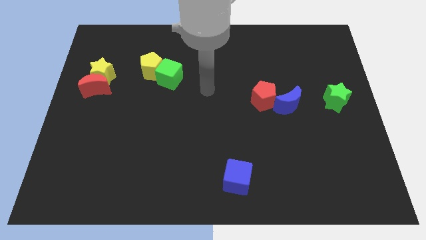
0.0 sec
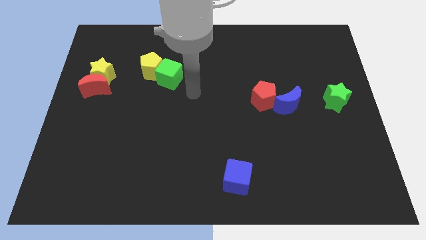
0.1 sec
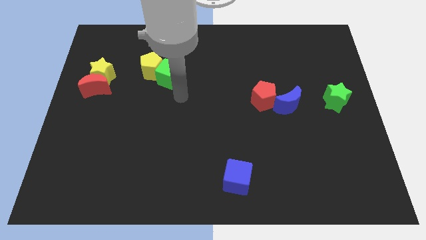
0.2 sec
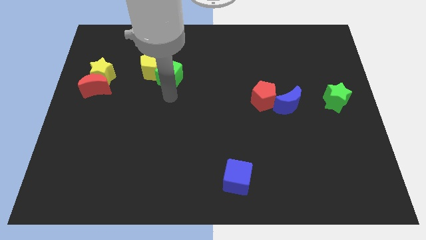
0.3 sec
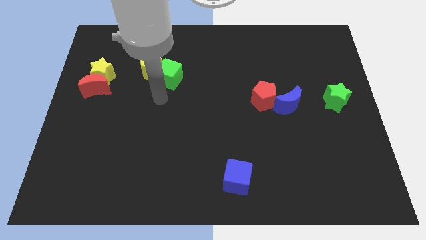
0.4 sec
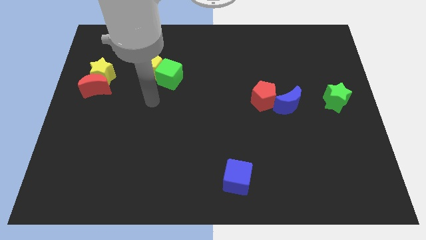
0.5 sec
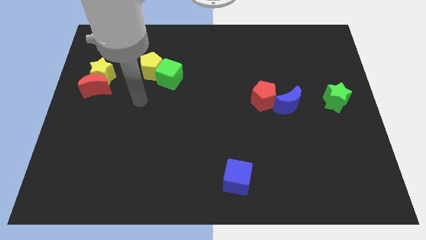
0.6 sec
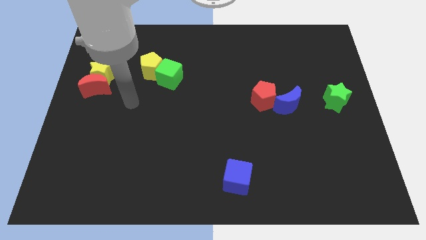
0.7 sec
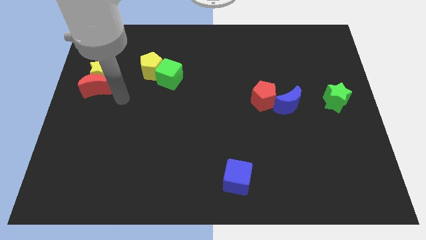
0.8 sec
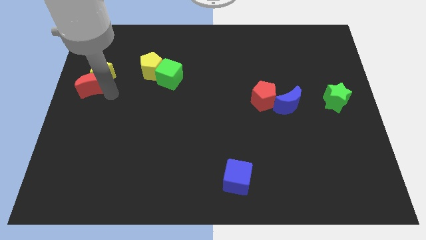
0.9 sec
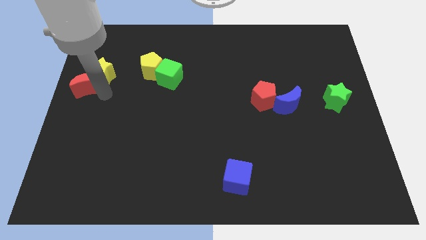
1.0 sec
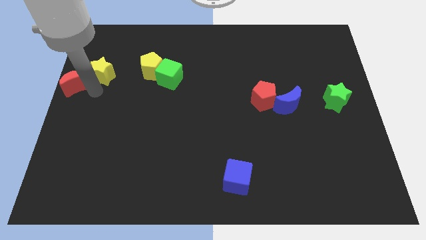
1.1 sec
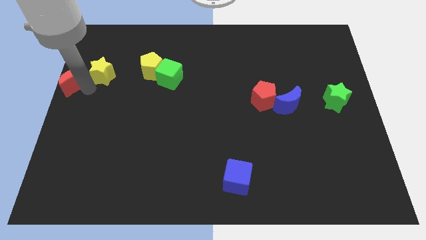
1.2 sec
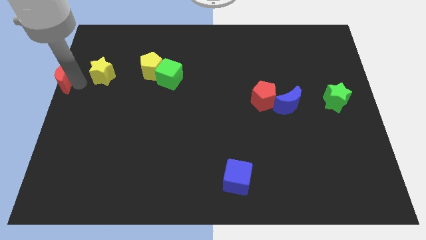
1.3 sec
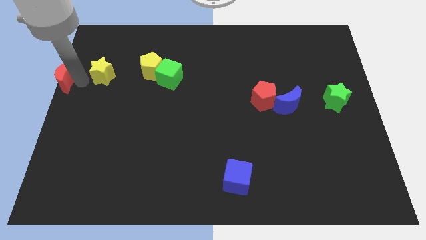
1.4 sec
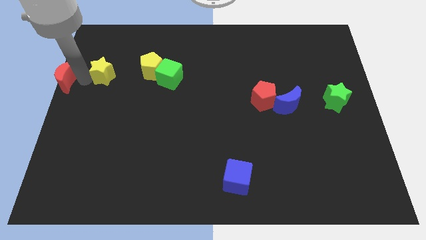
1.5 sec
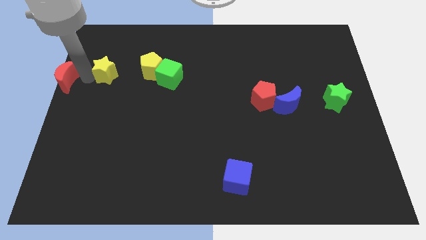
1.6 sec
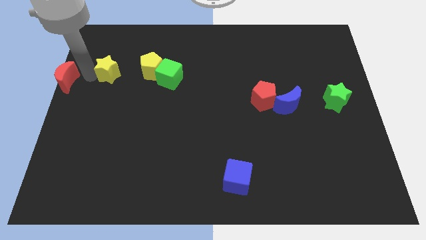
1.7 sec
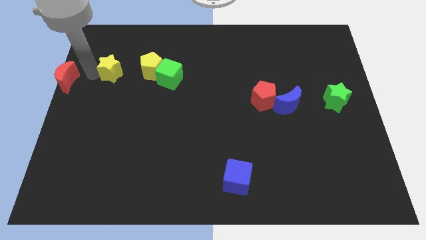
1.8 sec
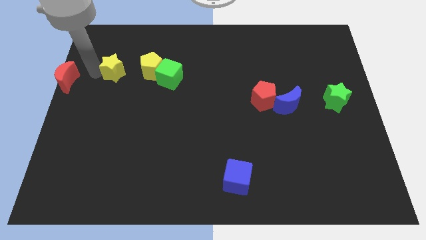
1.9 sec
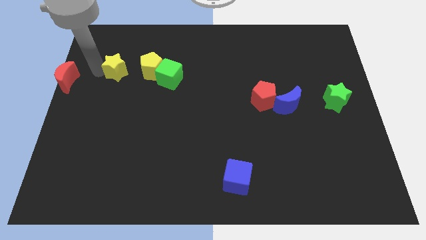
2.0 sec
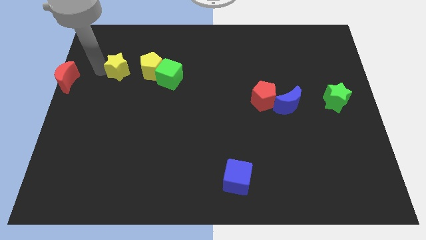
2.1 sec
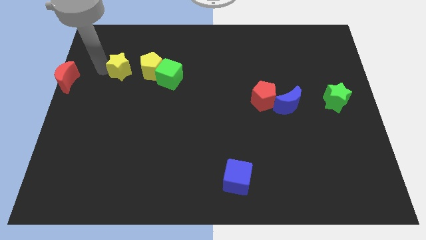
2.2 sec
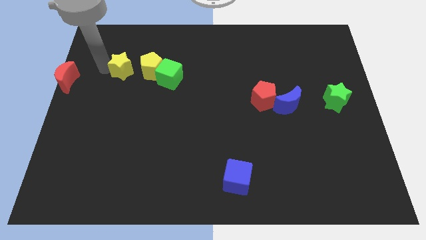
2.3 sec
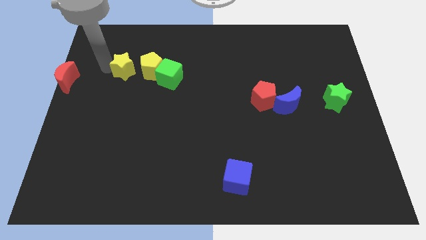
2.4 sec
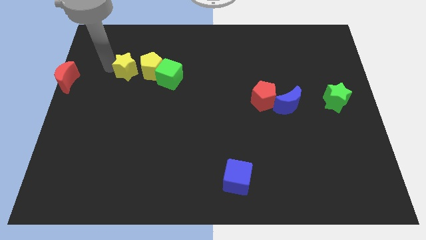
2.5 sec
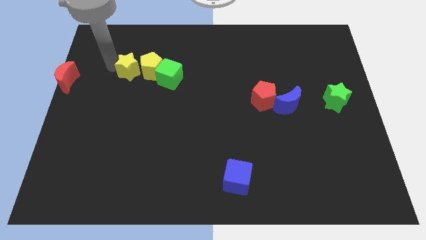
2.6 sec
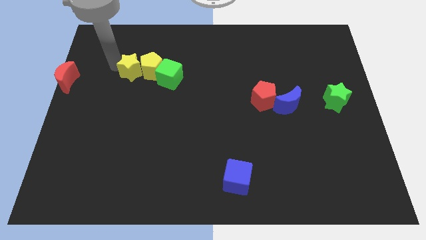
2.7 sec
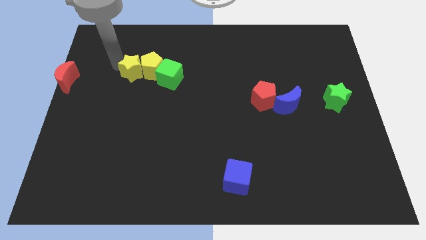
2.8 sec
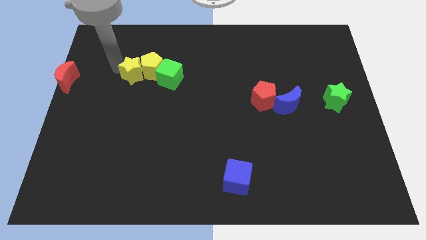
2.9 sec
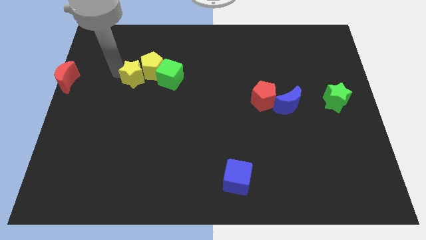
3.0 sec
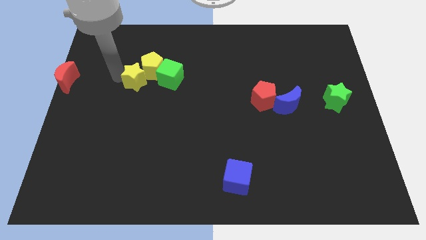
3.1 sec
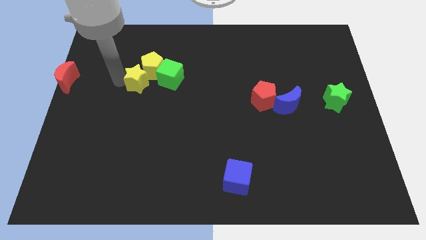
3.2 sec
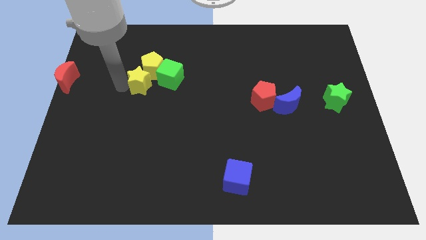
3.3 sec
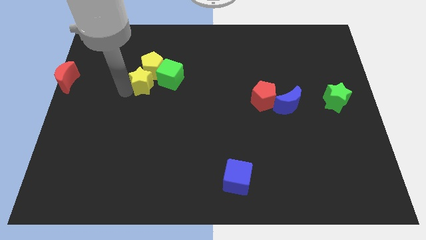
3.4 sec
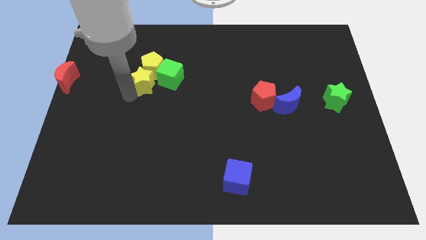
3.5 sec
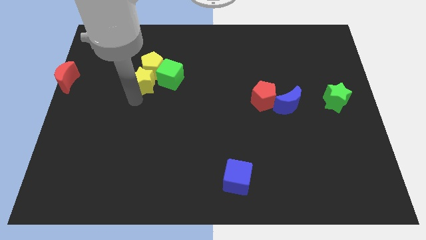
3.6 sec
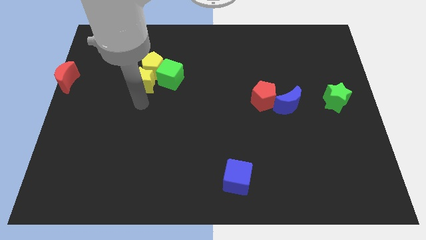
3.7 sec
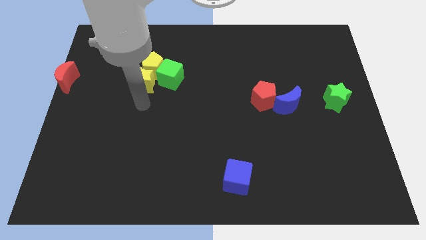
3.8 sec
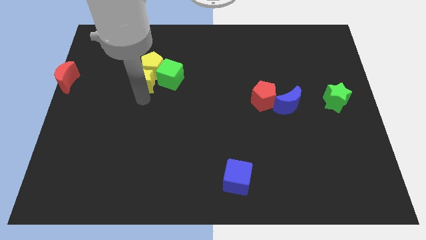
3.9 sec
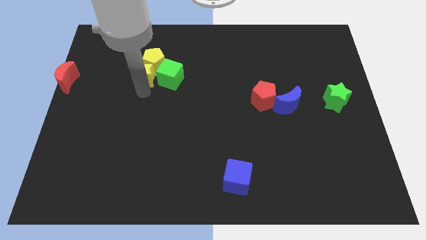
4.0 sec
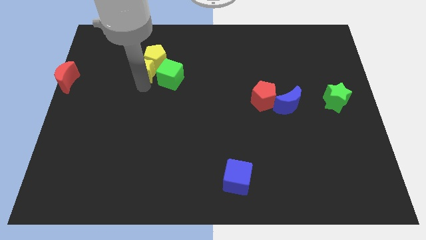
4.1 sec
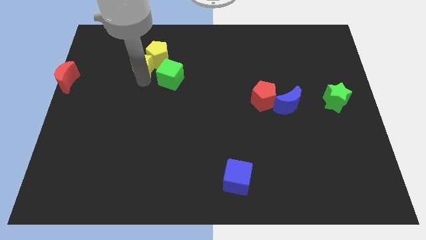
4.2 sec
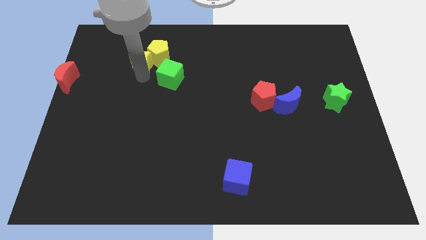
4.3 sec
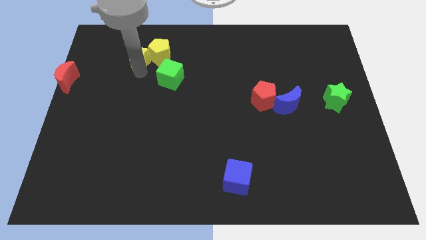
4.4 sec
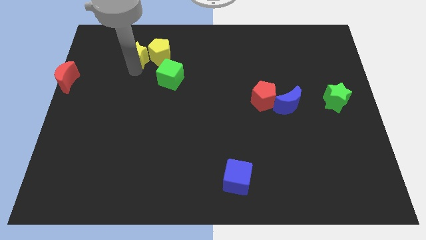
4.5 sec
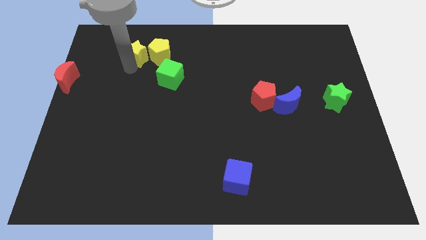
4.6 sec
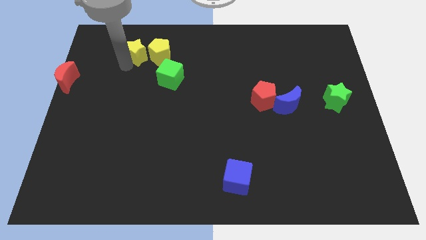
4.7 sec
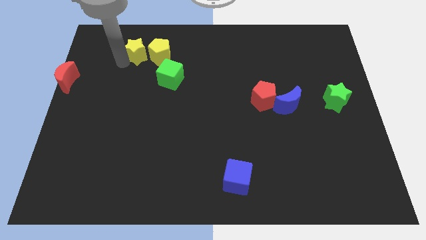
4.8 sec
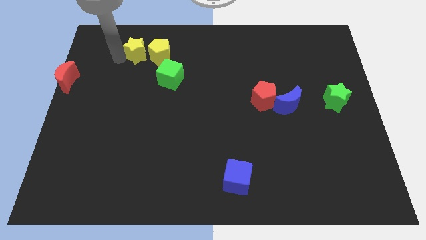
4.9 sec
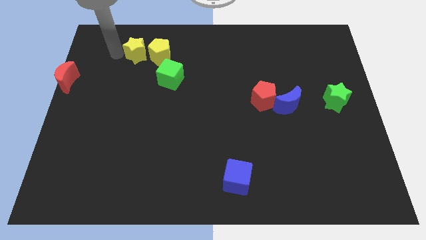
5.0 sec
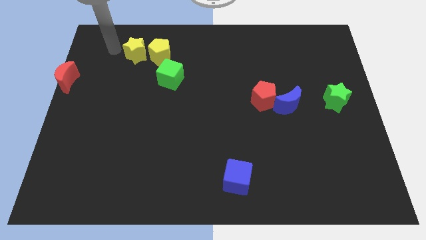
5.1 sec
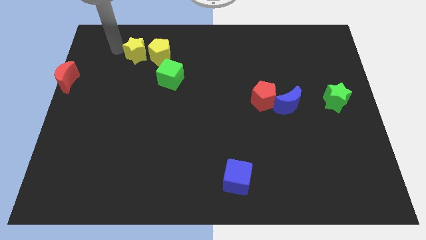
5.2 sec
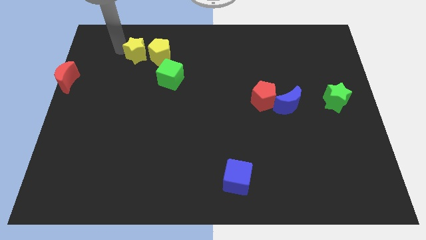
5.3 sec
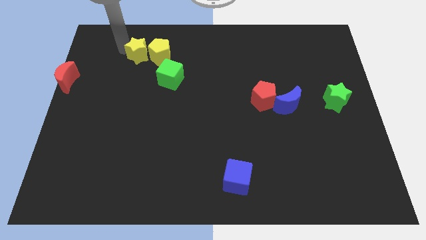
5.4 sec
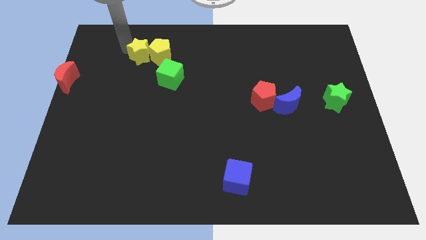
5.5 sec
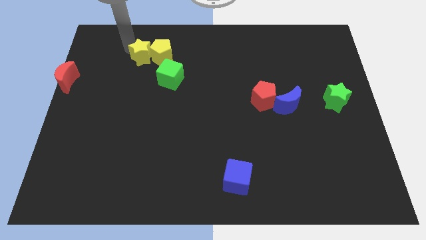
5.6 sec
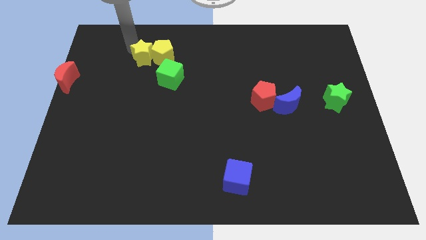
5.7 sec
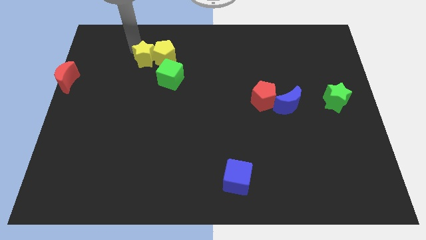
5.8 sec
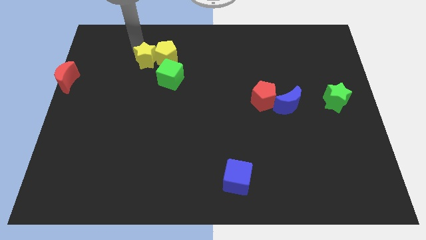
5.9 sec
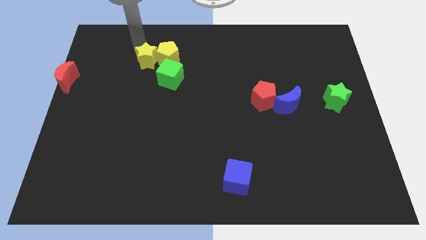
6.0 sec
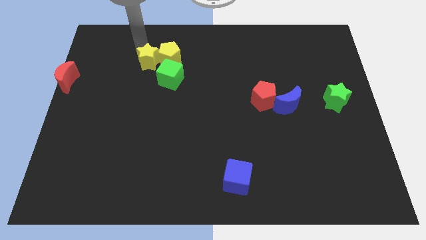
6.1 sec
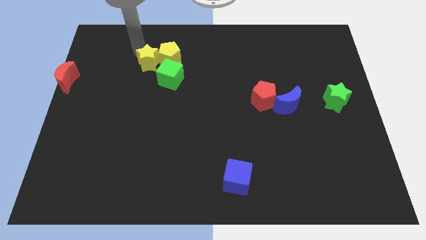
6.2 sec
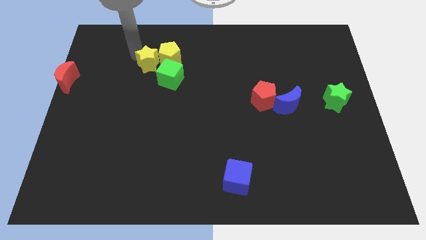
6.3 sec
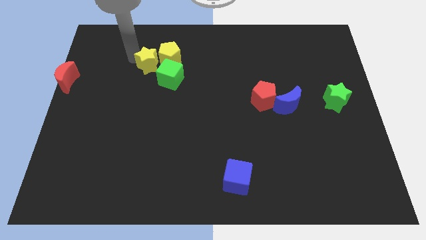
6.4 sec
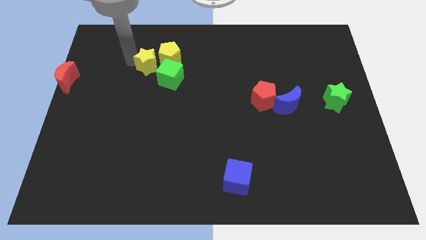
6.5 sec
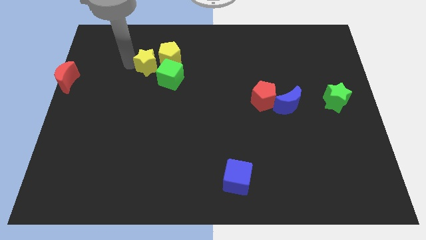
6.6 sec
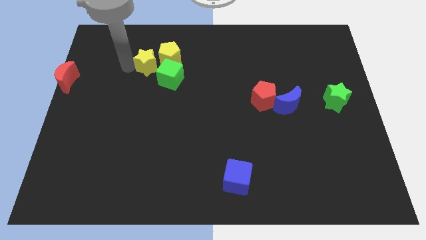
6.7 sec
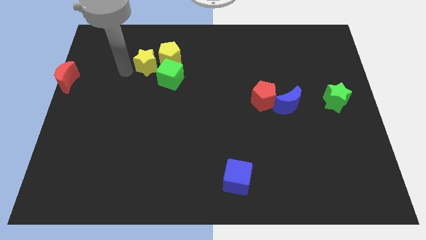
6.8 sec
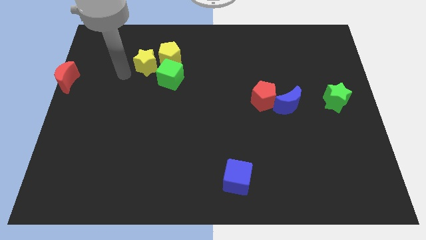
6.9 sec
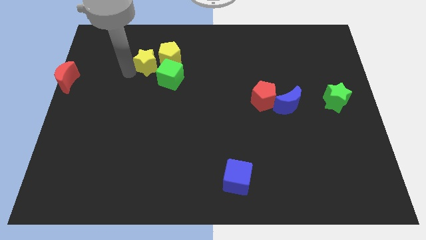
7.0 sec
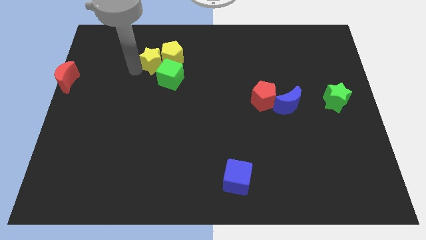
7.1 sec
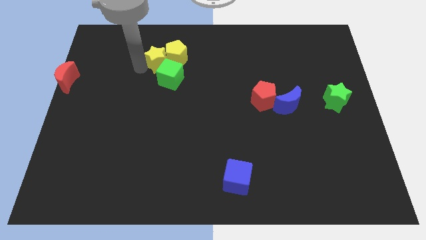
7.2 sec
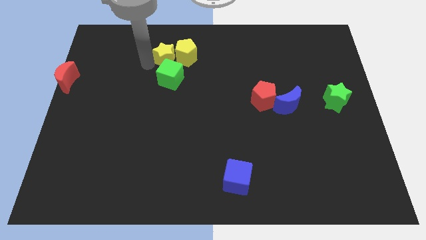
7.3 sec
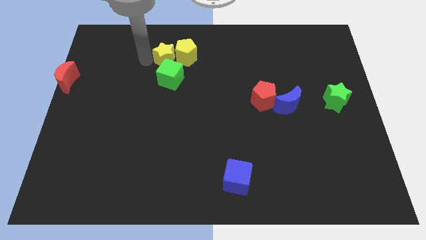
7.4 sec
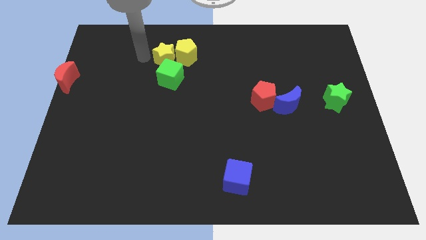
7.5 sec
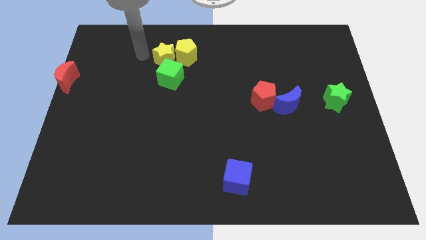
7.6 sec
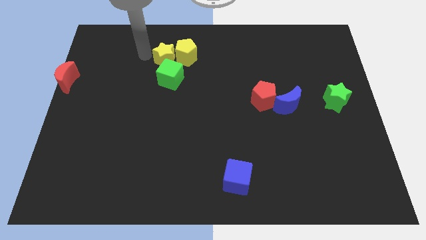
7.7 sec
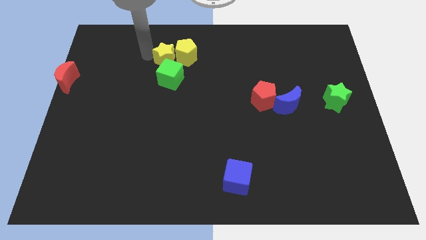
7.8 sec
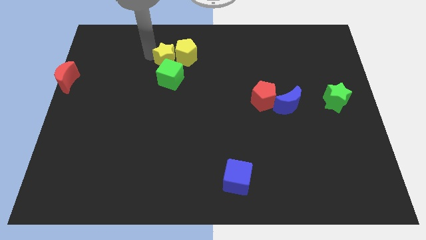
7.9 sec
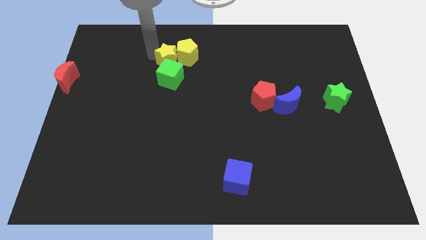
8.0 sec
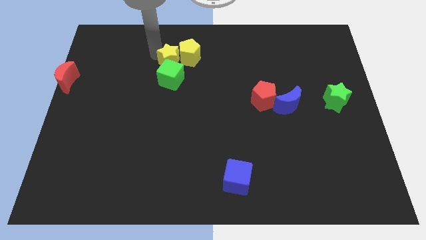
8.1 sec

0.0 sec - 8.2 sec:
move the yellow star to the top right side of the green cube
